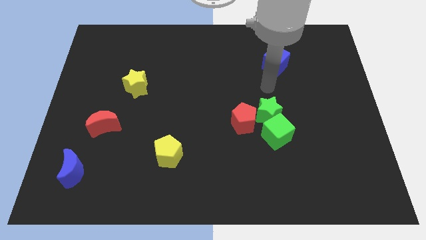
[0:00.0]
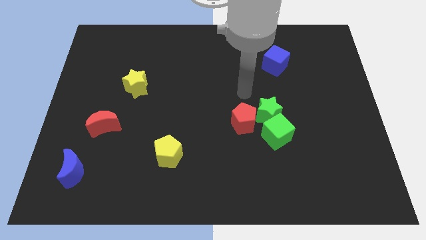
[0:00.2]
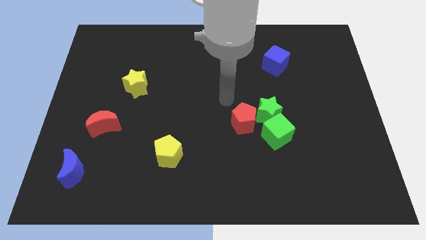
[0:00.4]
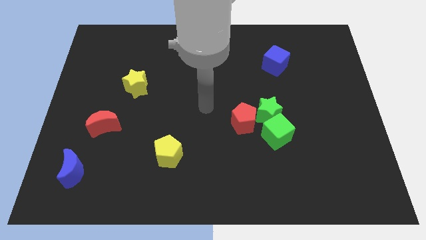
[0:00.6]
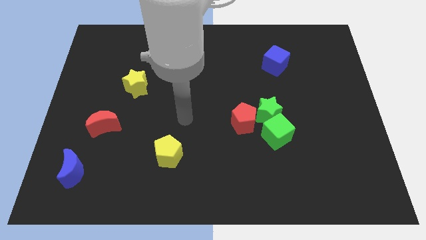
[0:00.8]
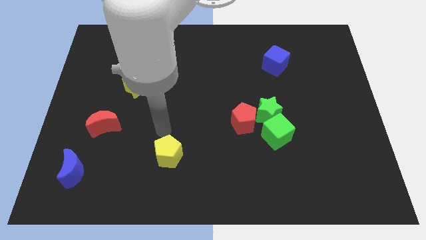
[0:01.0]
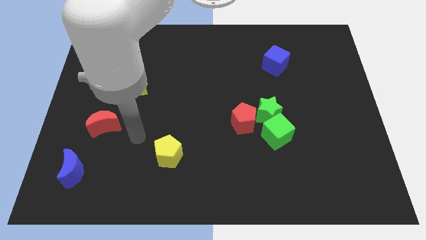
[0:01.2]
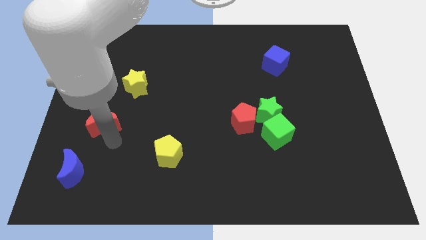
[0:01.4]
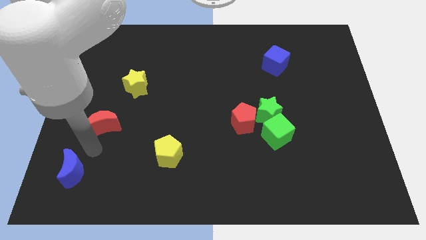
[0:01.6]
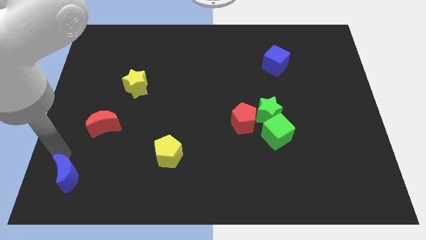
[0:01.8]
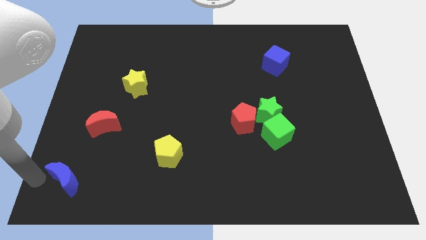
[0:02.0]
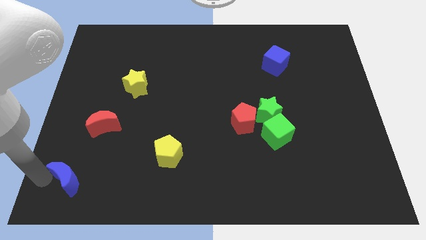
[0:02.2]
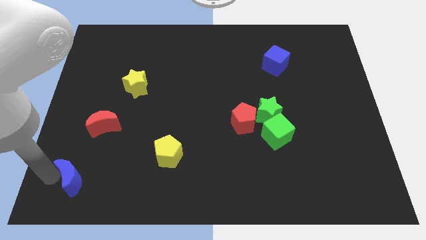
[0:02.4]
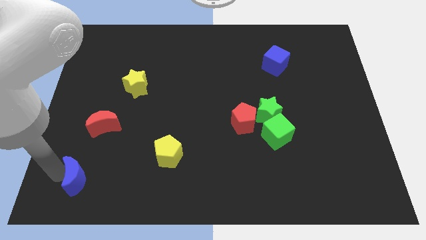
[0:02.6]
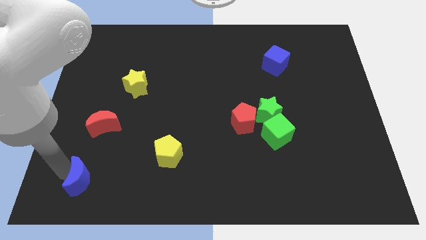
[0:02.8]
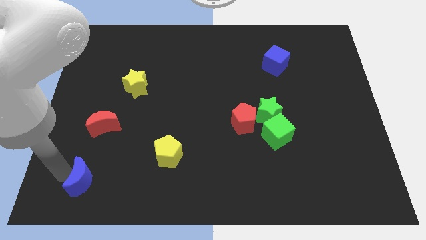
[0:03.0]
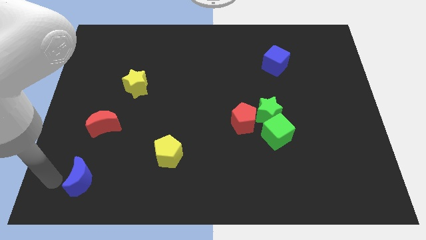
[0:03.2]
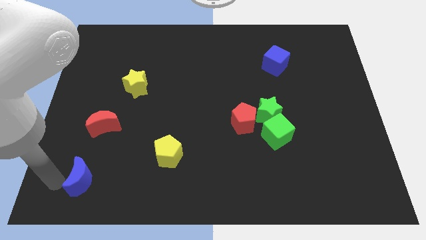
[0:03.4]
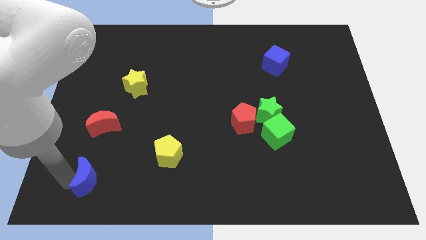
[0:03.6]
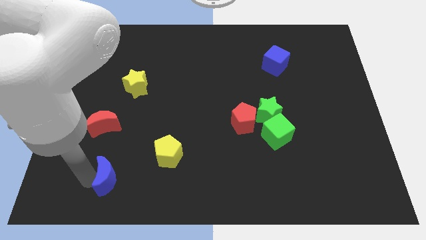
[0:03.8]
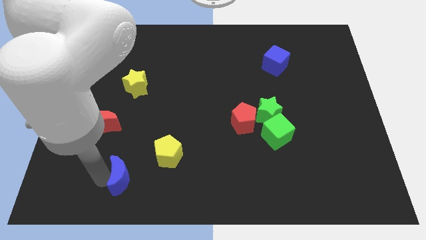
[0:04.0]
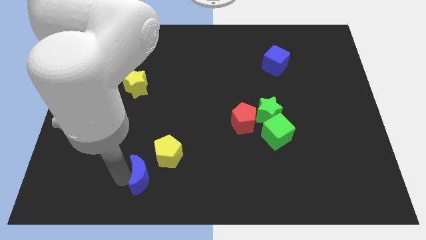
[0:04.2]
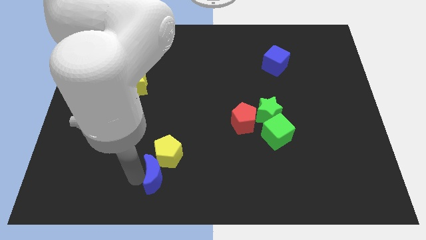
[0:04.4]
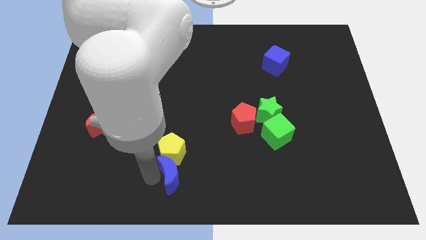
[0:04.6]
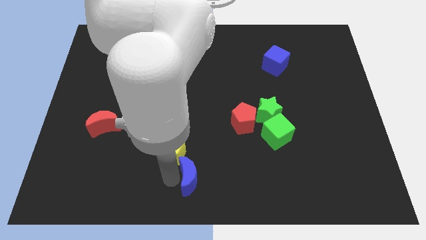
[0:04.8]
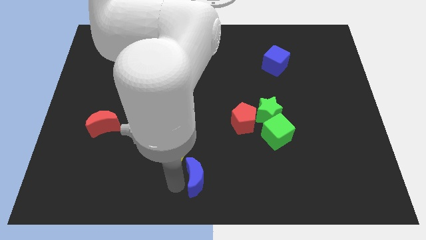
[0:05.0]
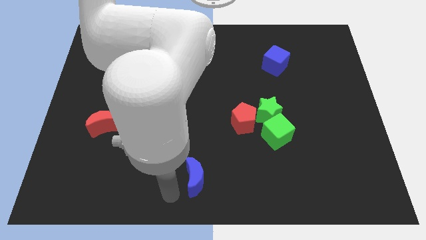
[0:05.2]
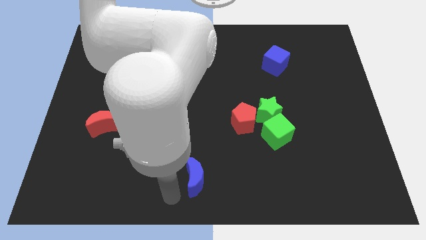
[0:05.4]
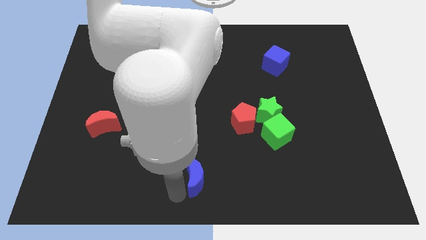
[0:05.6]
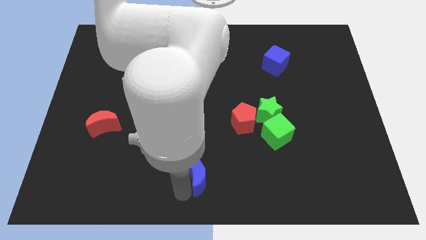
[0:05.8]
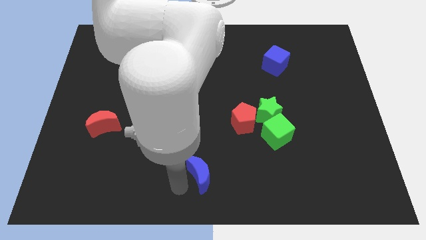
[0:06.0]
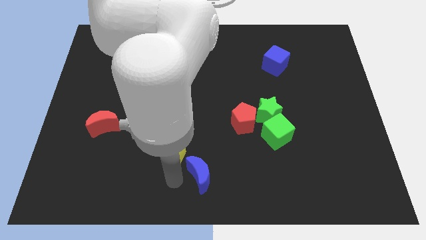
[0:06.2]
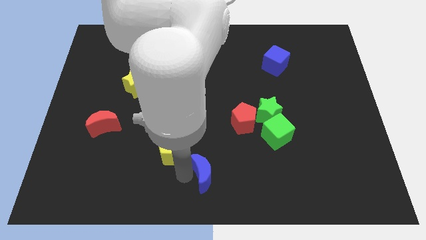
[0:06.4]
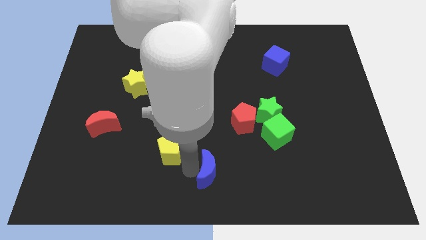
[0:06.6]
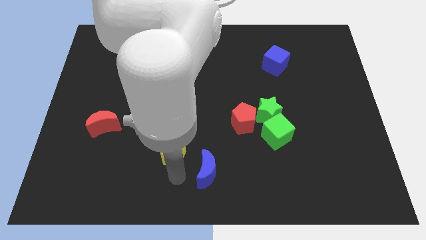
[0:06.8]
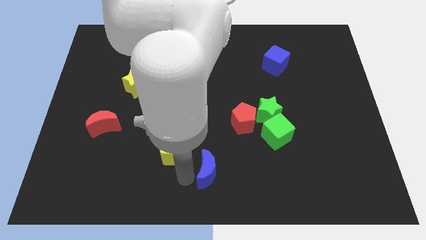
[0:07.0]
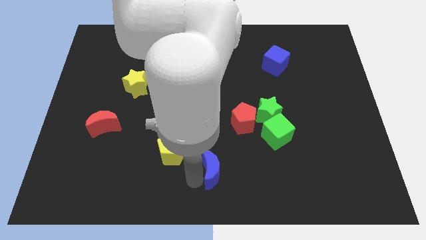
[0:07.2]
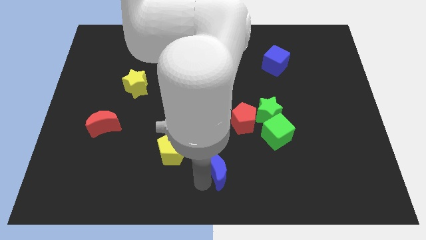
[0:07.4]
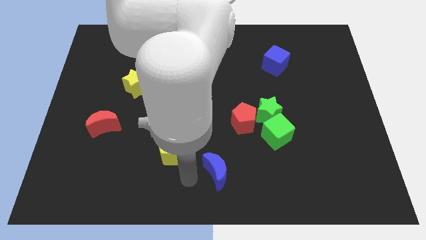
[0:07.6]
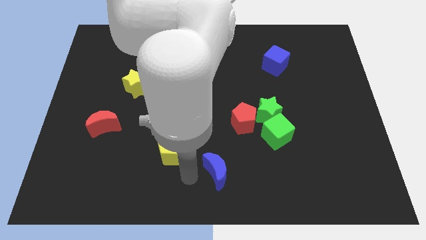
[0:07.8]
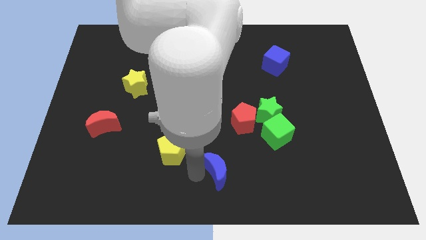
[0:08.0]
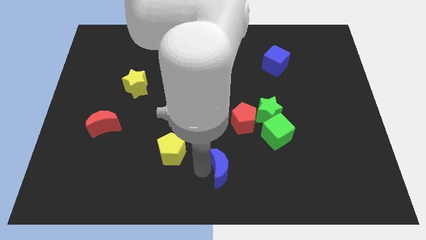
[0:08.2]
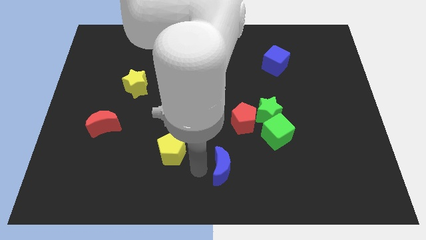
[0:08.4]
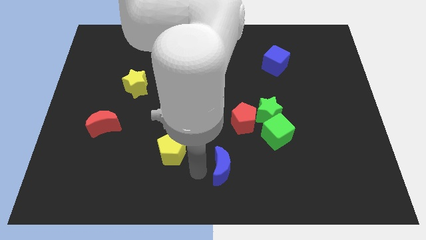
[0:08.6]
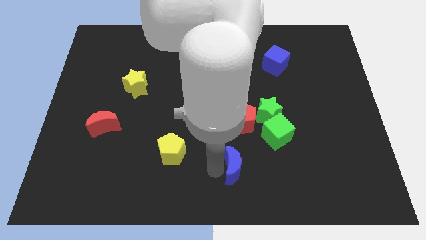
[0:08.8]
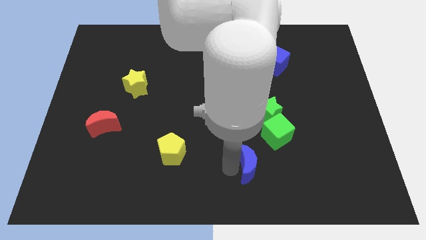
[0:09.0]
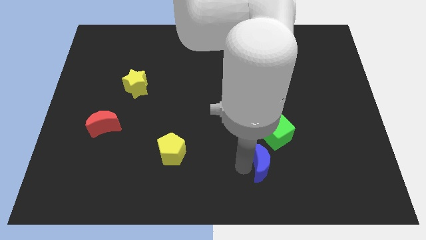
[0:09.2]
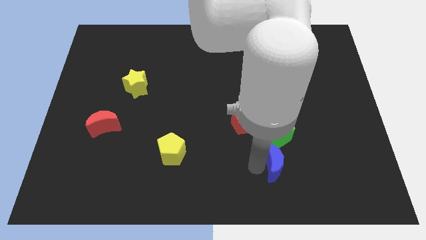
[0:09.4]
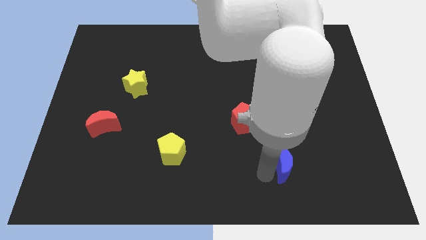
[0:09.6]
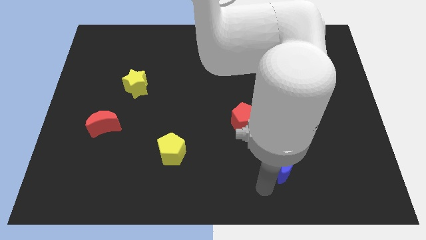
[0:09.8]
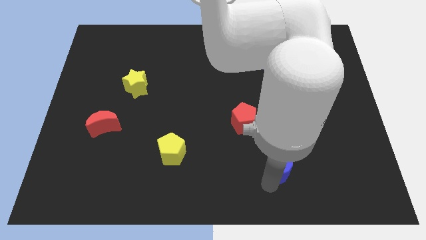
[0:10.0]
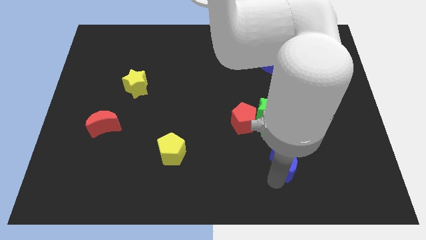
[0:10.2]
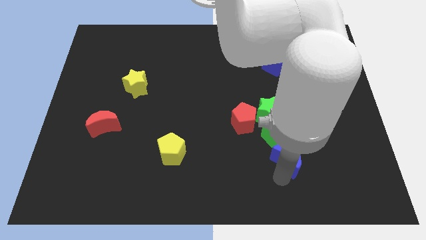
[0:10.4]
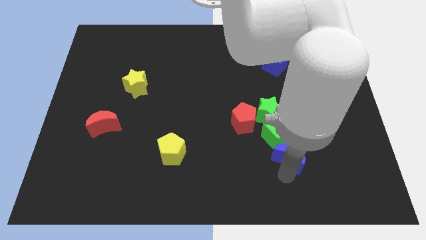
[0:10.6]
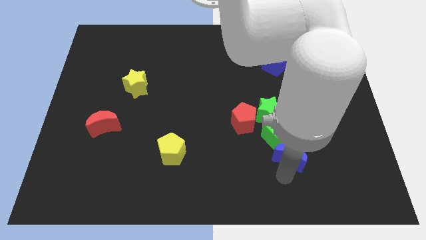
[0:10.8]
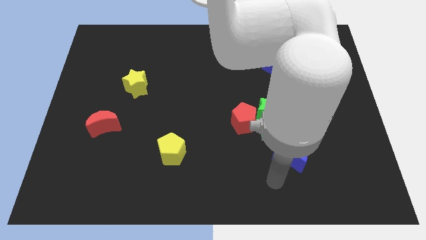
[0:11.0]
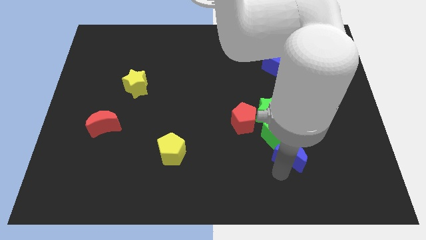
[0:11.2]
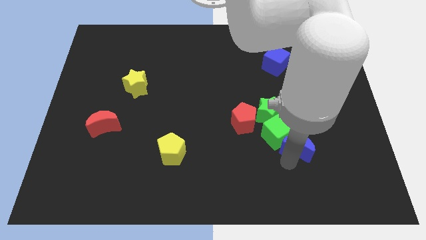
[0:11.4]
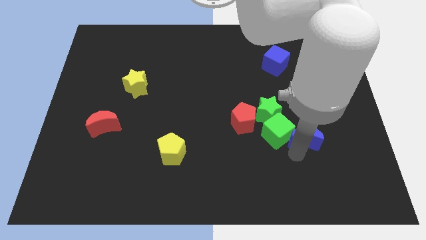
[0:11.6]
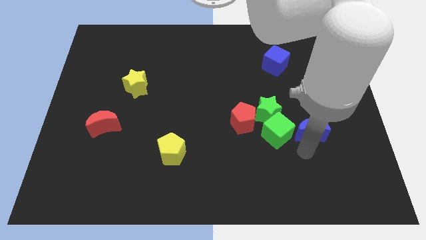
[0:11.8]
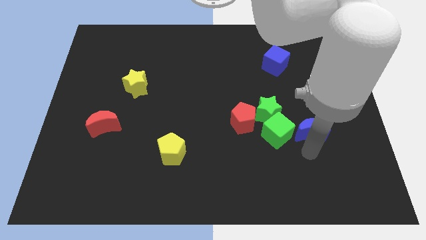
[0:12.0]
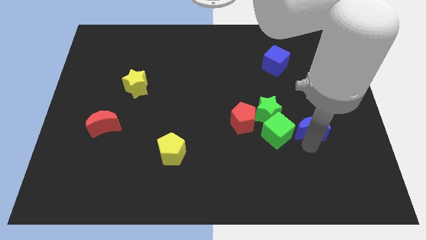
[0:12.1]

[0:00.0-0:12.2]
push the blue moon to the right of the green star
